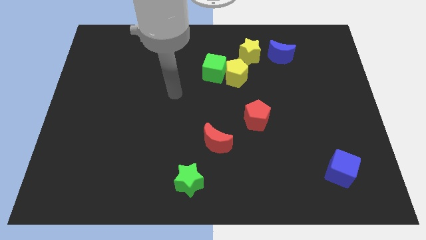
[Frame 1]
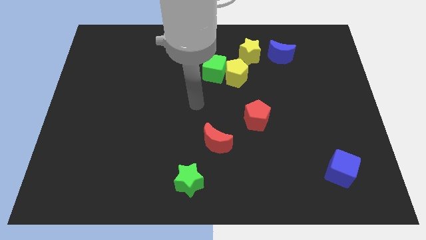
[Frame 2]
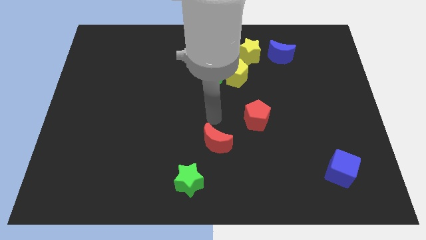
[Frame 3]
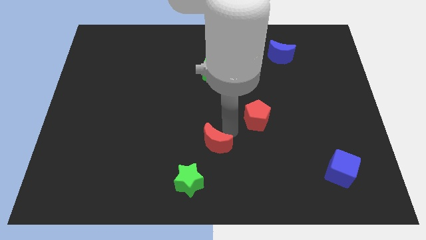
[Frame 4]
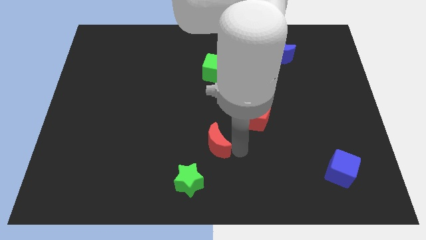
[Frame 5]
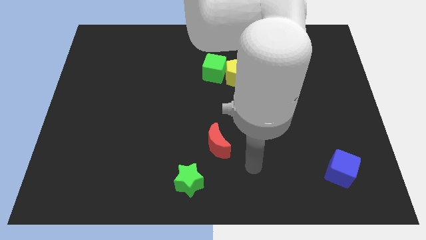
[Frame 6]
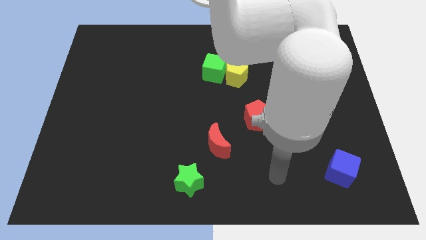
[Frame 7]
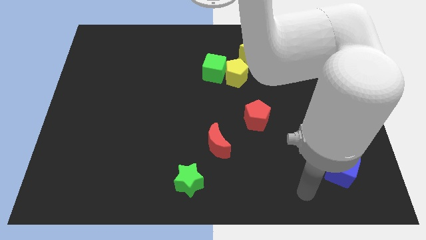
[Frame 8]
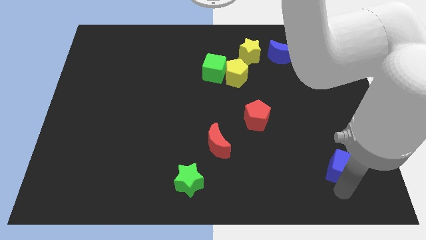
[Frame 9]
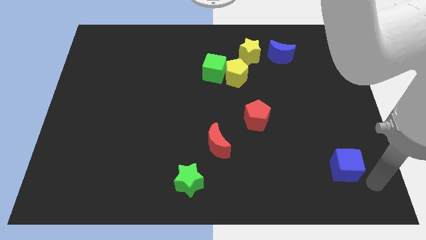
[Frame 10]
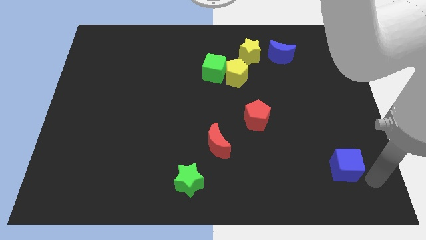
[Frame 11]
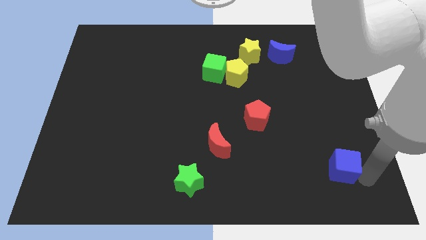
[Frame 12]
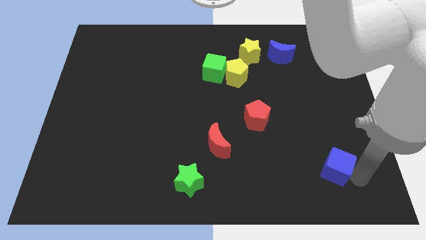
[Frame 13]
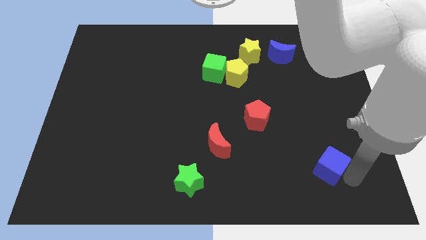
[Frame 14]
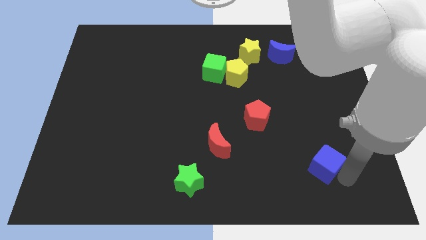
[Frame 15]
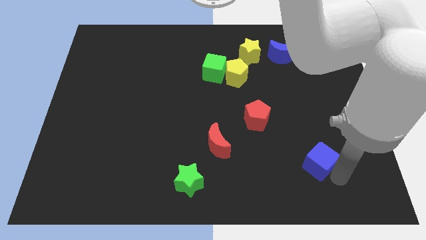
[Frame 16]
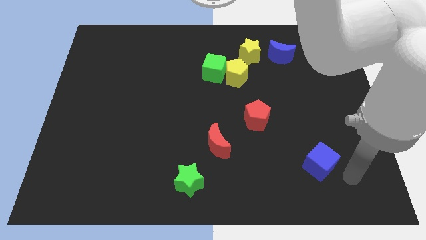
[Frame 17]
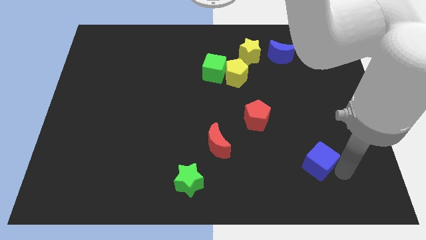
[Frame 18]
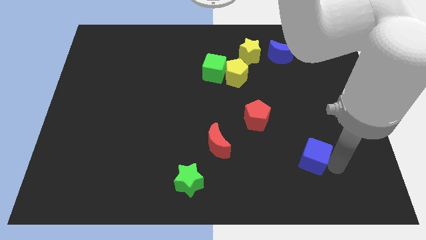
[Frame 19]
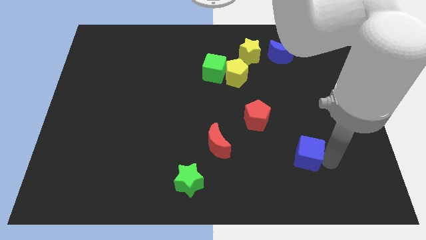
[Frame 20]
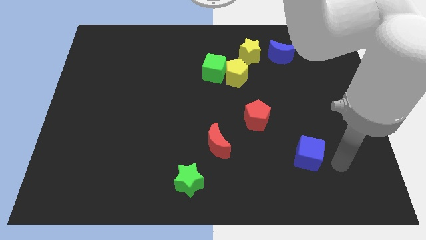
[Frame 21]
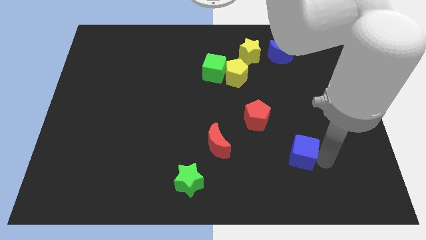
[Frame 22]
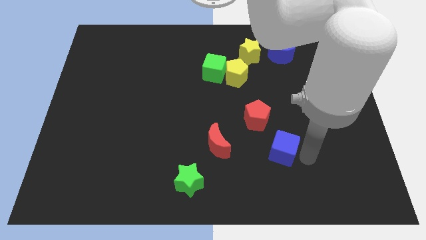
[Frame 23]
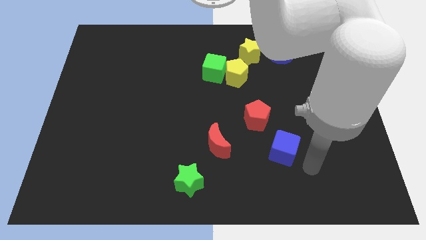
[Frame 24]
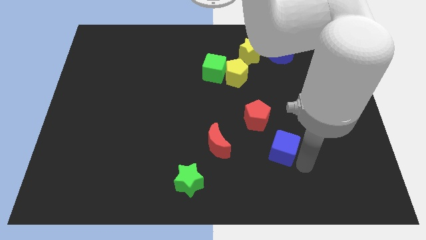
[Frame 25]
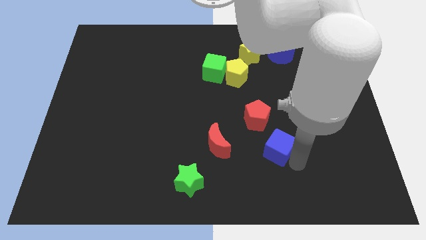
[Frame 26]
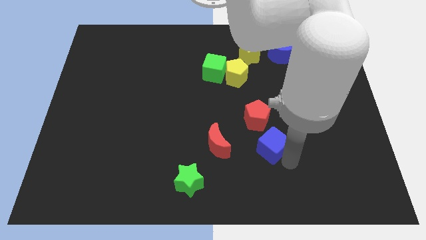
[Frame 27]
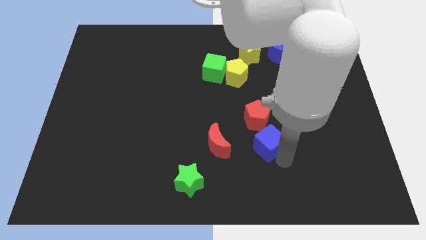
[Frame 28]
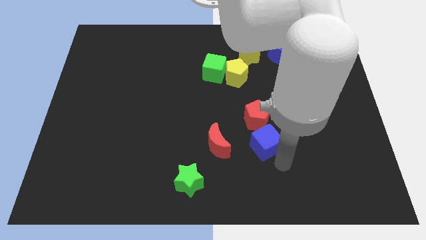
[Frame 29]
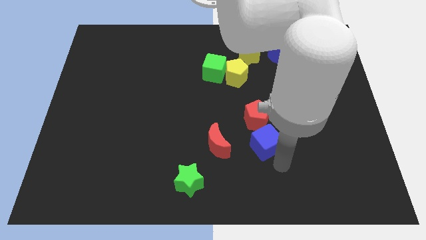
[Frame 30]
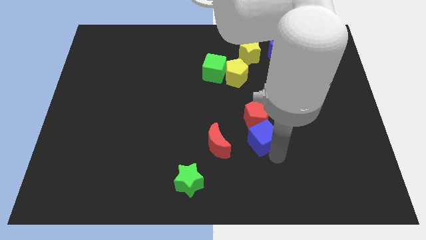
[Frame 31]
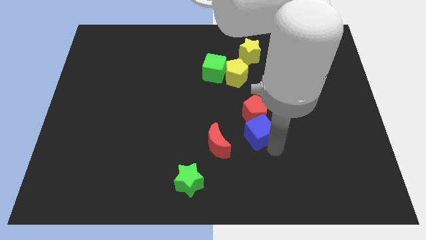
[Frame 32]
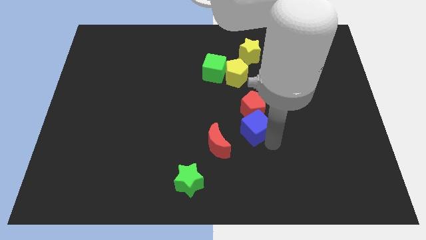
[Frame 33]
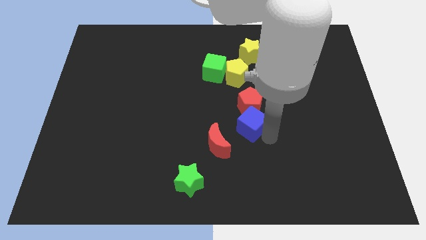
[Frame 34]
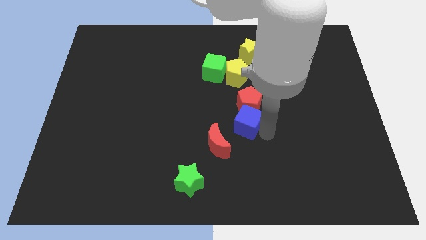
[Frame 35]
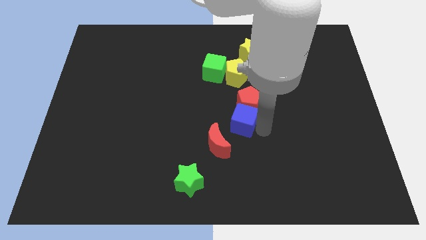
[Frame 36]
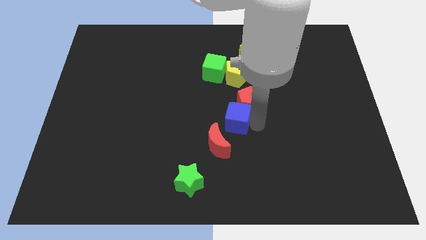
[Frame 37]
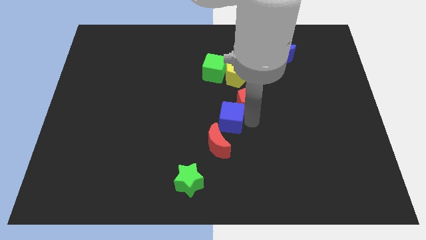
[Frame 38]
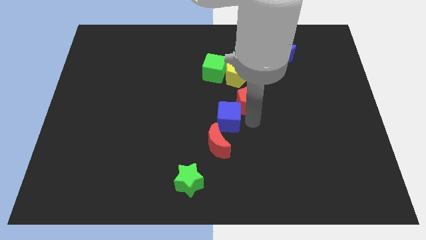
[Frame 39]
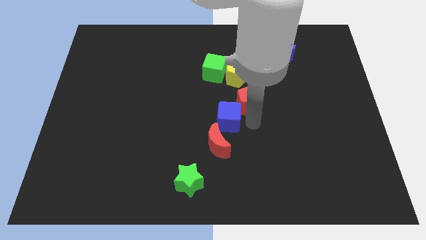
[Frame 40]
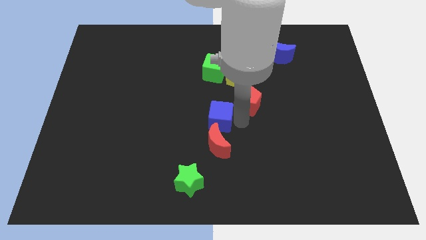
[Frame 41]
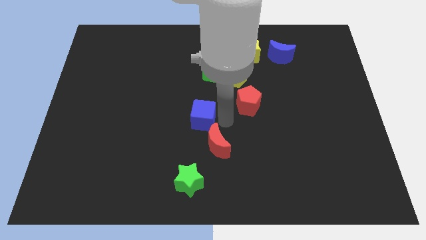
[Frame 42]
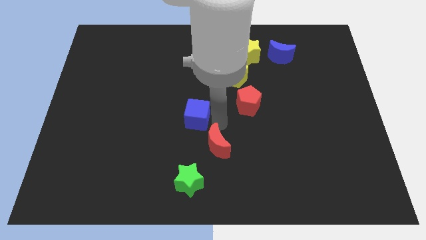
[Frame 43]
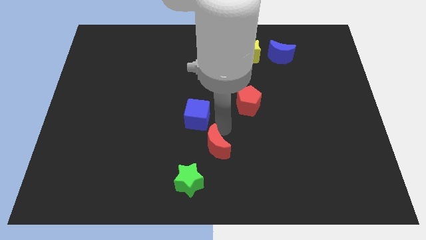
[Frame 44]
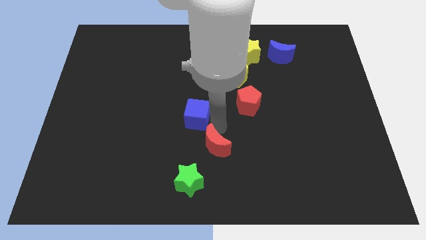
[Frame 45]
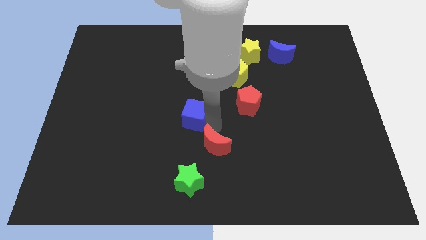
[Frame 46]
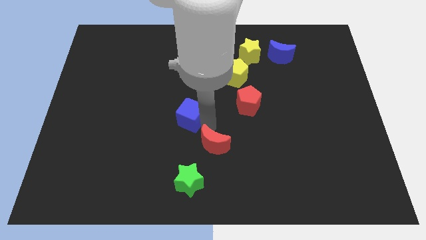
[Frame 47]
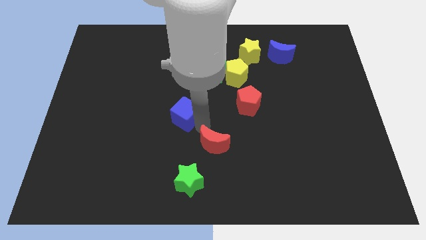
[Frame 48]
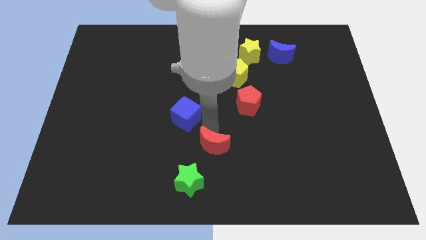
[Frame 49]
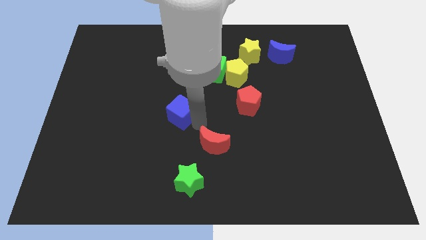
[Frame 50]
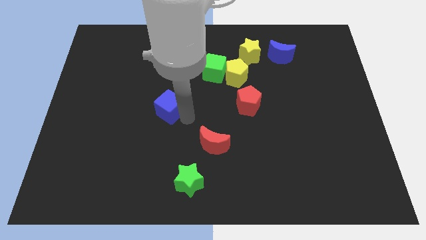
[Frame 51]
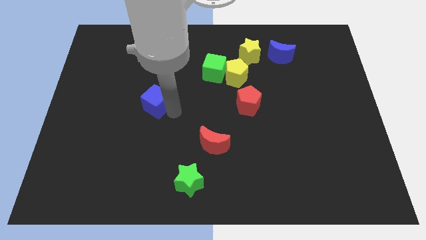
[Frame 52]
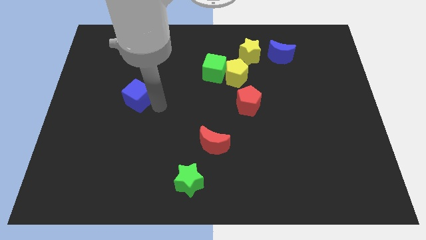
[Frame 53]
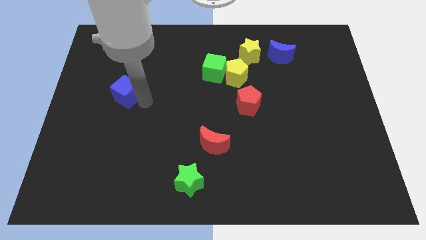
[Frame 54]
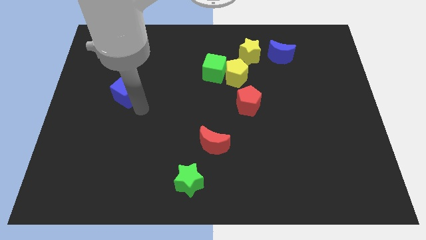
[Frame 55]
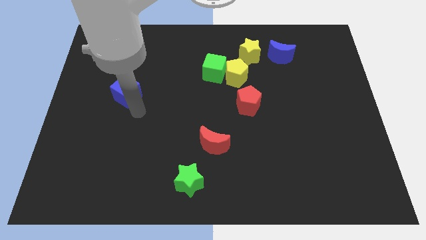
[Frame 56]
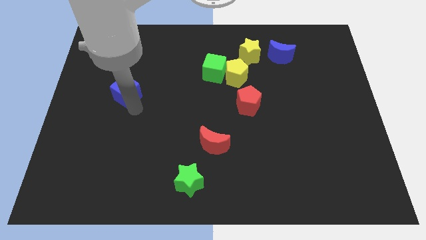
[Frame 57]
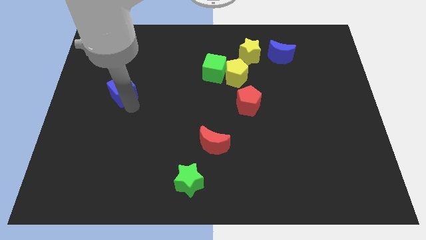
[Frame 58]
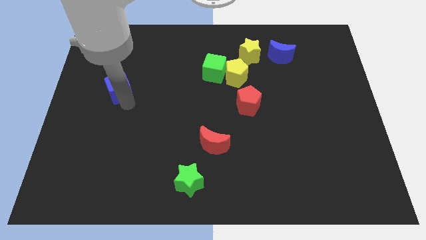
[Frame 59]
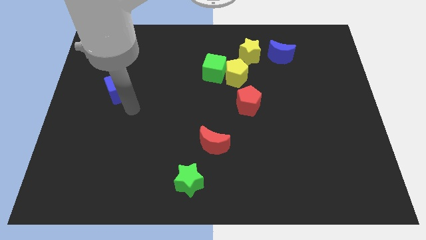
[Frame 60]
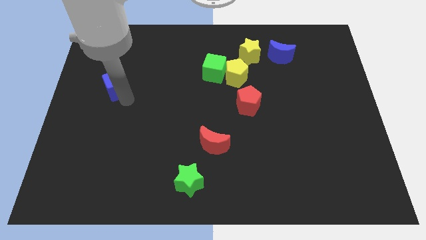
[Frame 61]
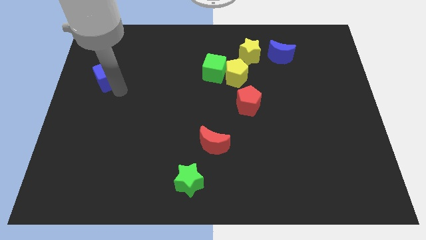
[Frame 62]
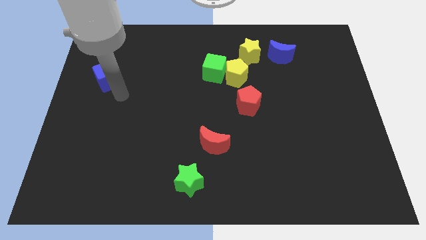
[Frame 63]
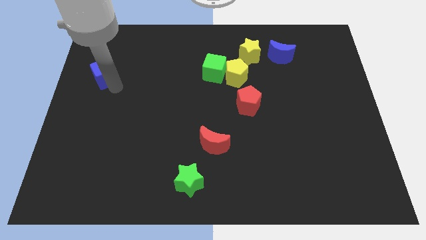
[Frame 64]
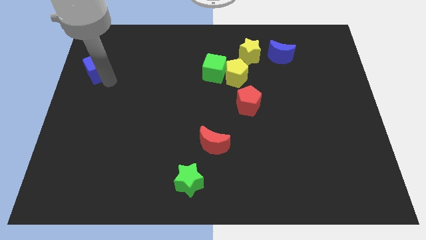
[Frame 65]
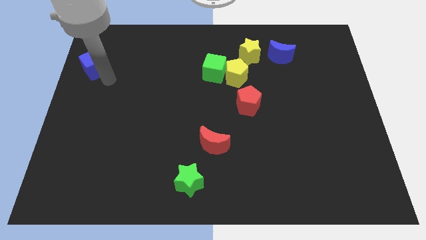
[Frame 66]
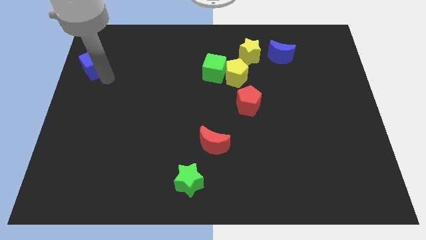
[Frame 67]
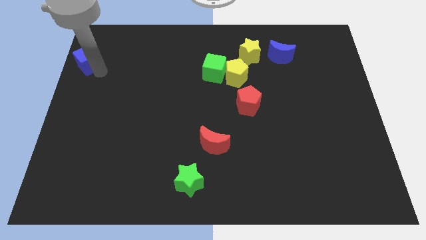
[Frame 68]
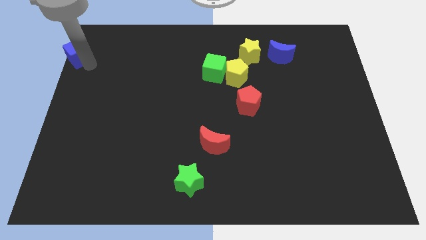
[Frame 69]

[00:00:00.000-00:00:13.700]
slide the blue cube to the upper left corner
